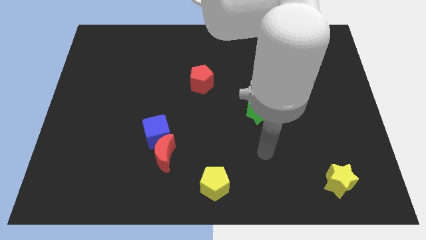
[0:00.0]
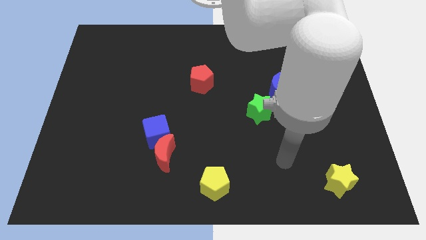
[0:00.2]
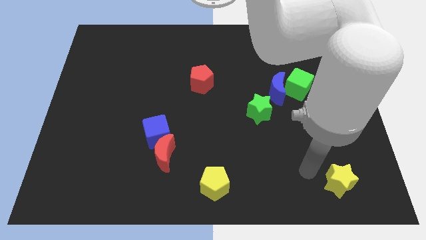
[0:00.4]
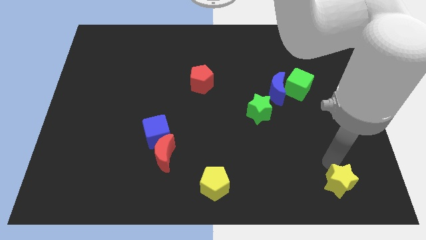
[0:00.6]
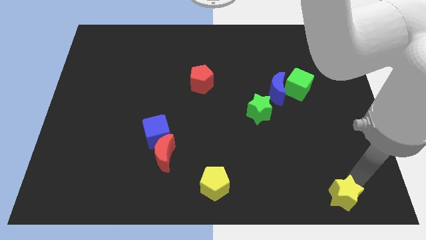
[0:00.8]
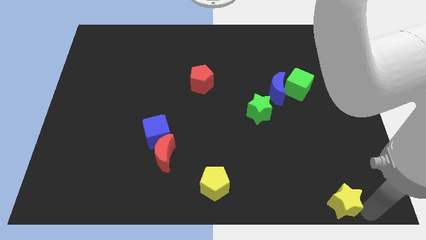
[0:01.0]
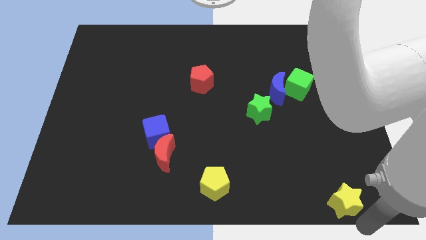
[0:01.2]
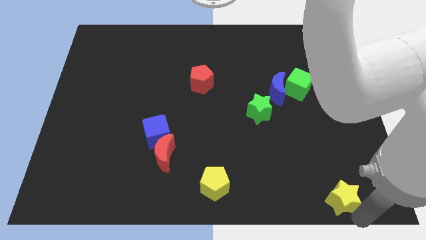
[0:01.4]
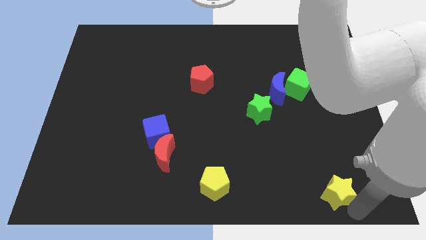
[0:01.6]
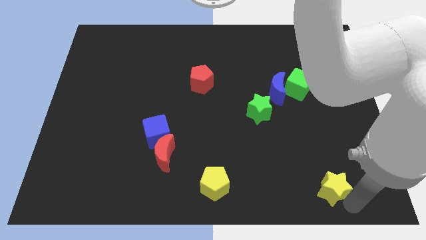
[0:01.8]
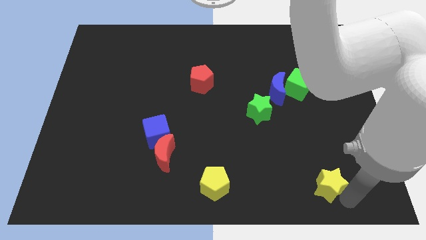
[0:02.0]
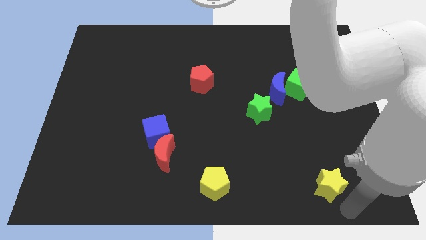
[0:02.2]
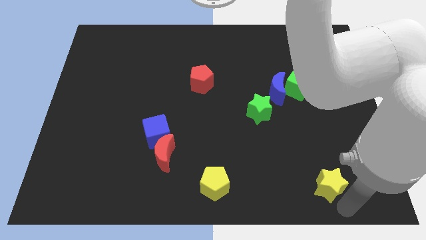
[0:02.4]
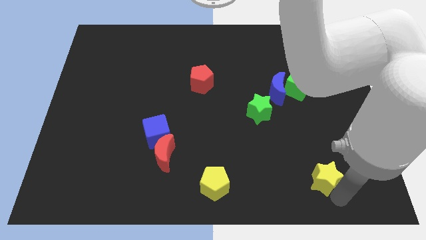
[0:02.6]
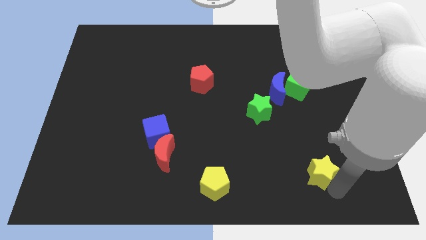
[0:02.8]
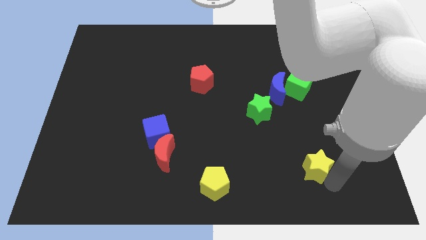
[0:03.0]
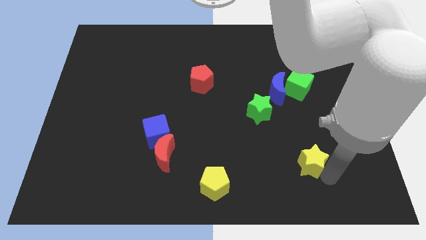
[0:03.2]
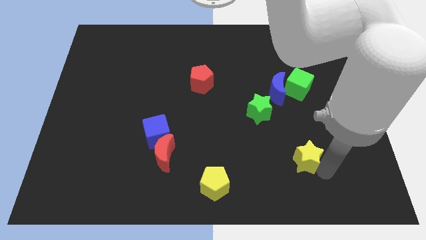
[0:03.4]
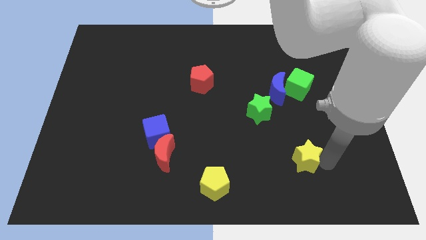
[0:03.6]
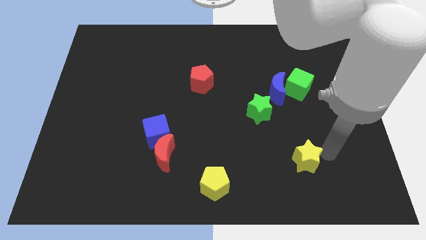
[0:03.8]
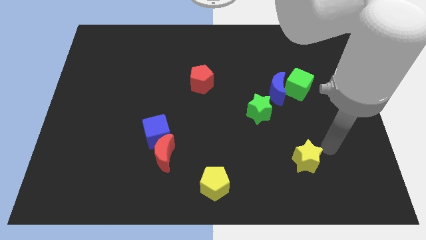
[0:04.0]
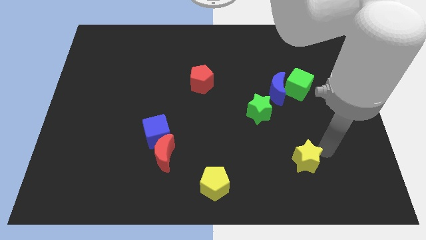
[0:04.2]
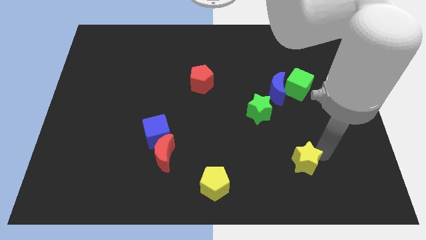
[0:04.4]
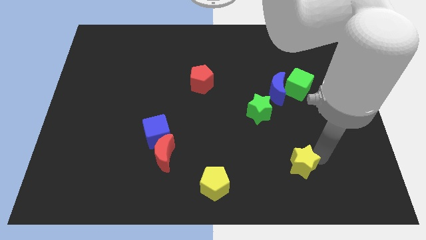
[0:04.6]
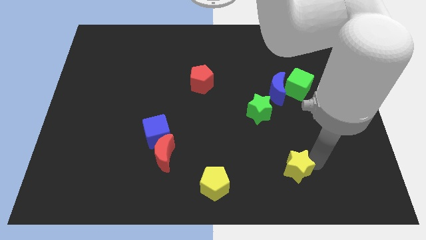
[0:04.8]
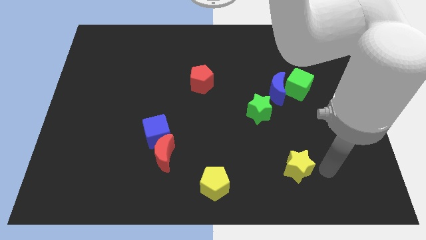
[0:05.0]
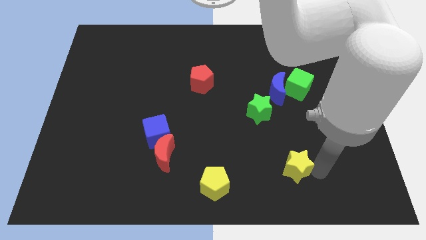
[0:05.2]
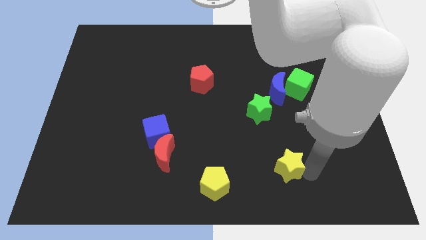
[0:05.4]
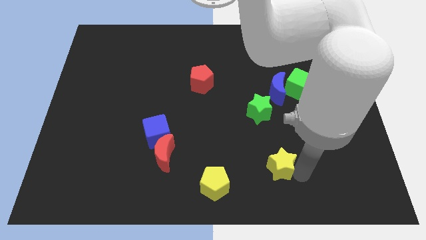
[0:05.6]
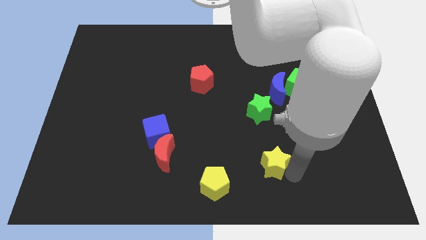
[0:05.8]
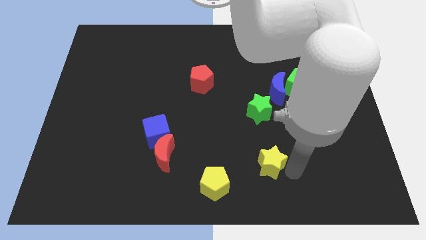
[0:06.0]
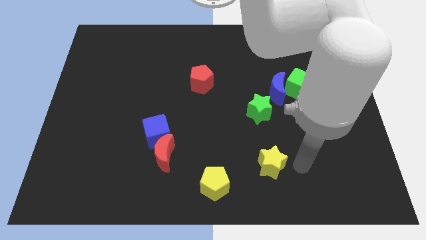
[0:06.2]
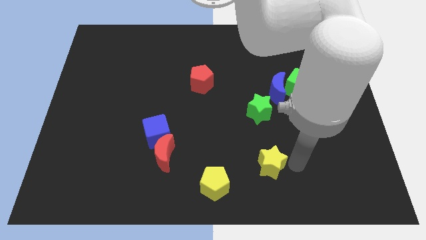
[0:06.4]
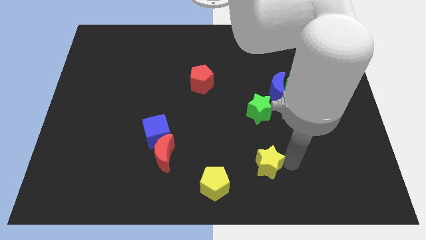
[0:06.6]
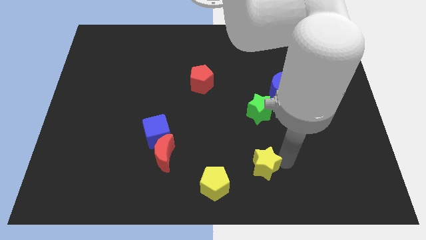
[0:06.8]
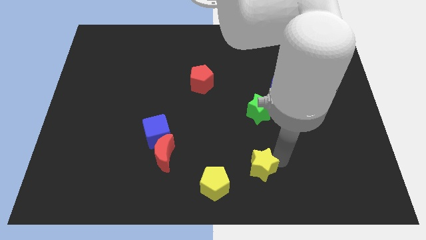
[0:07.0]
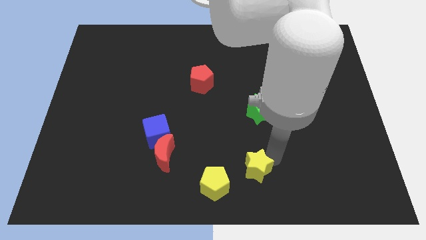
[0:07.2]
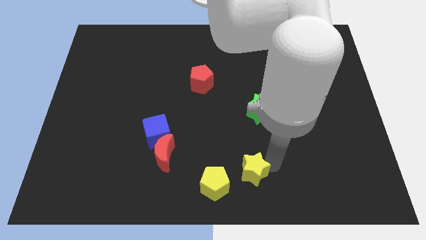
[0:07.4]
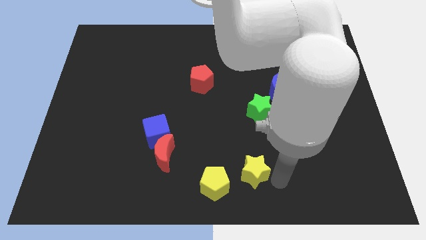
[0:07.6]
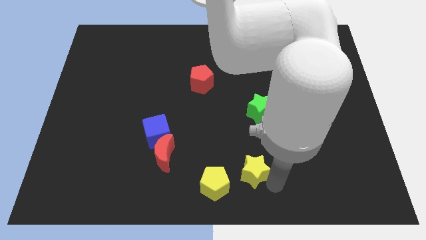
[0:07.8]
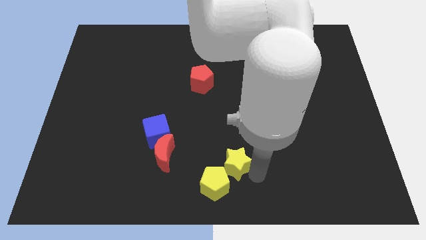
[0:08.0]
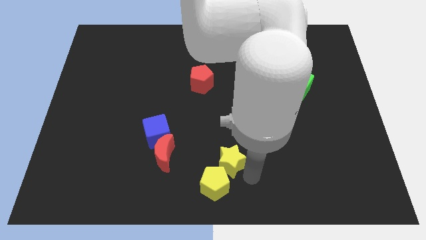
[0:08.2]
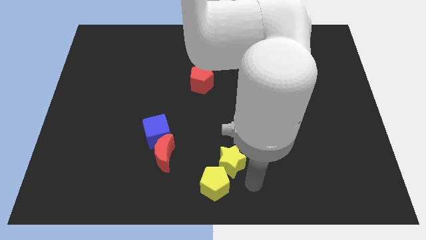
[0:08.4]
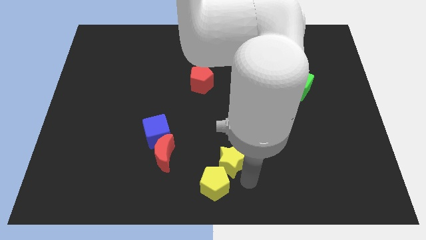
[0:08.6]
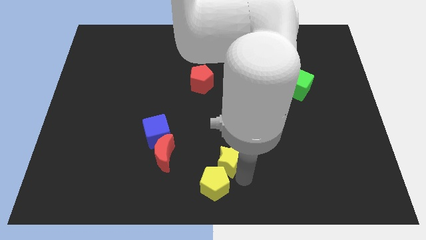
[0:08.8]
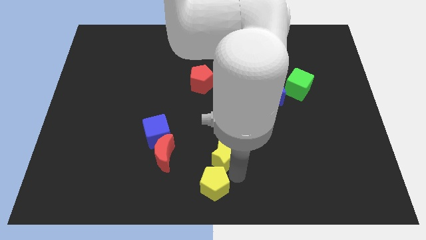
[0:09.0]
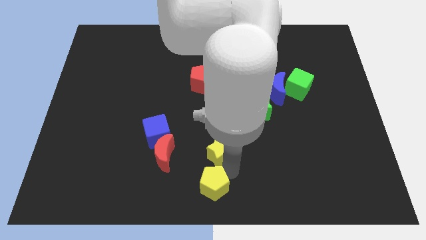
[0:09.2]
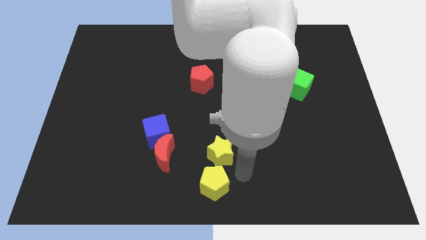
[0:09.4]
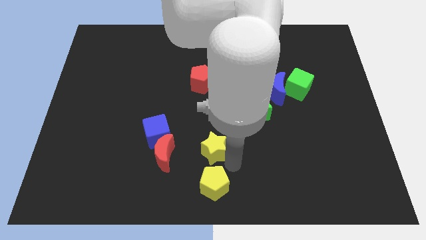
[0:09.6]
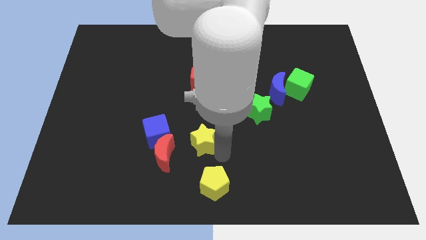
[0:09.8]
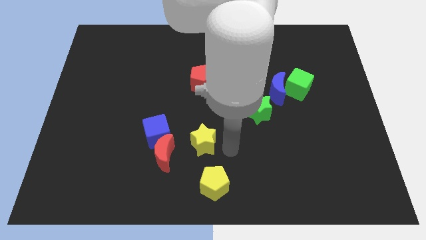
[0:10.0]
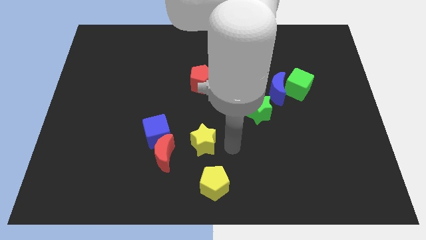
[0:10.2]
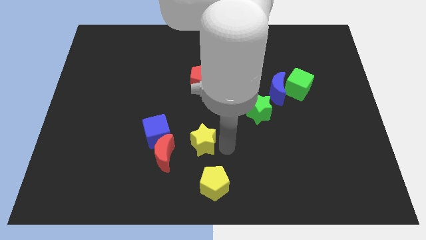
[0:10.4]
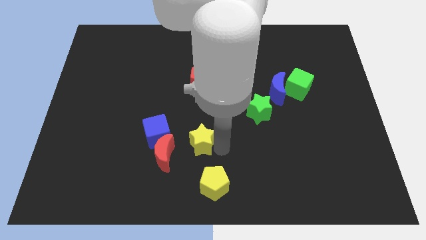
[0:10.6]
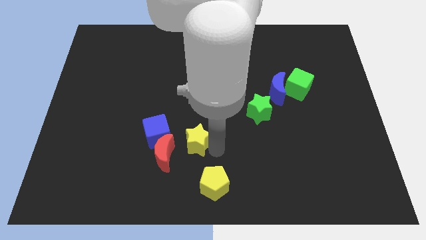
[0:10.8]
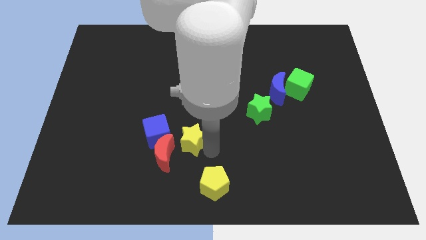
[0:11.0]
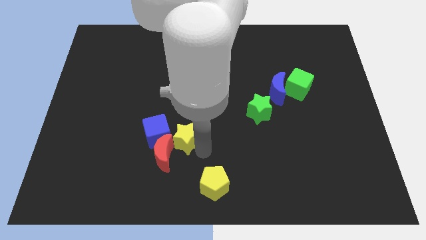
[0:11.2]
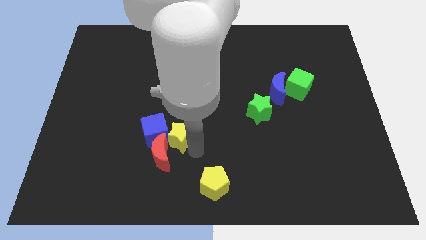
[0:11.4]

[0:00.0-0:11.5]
move the yellow star close to the blue cube

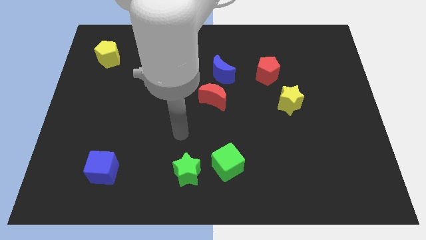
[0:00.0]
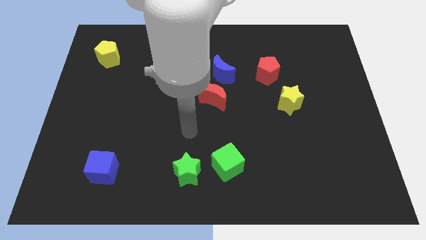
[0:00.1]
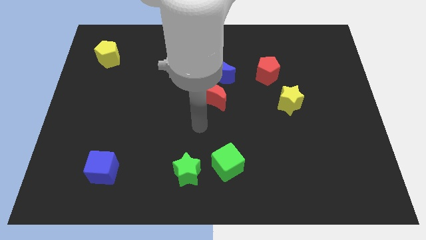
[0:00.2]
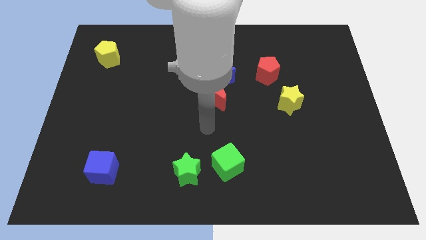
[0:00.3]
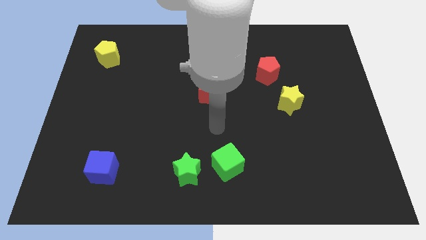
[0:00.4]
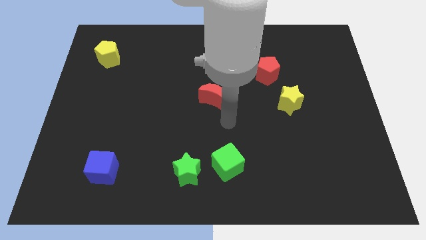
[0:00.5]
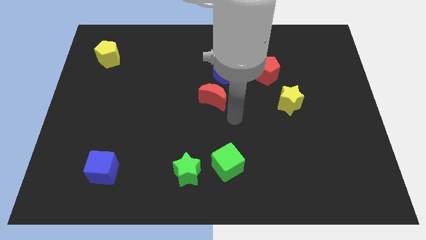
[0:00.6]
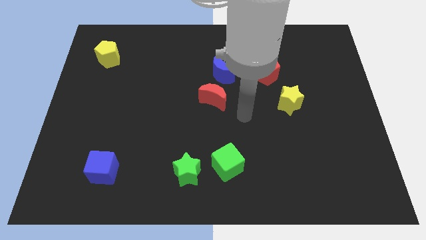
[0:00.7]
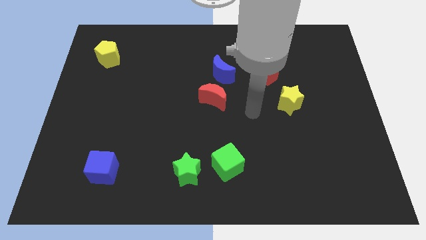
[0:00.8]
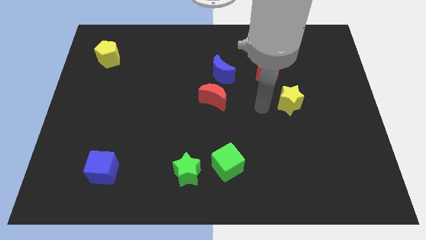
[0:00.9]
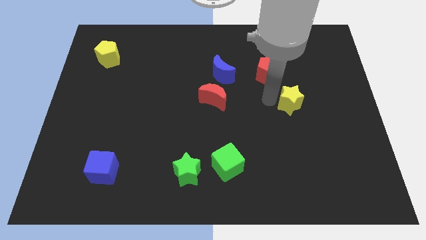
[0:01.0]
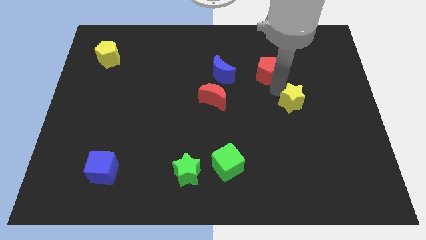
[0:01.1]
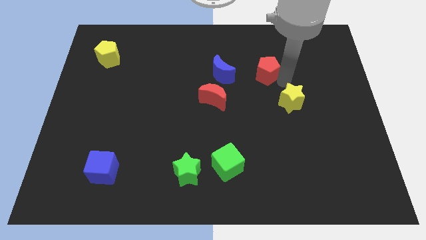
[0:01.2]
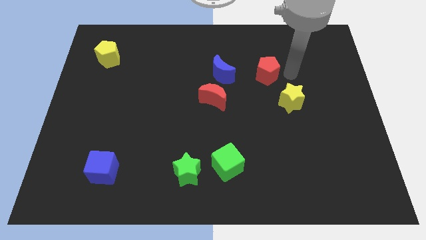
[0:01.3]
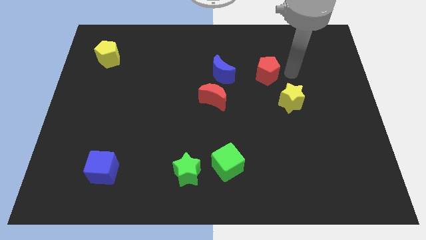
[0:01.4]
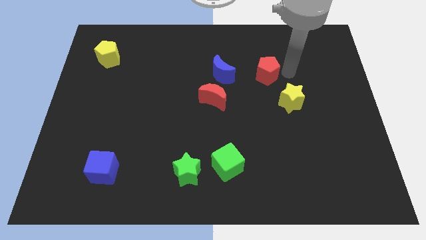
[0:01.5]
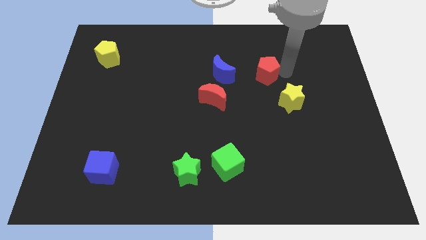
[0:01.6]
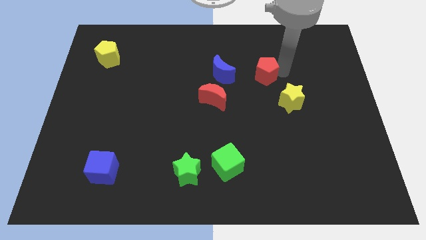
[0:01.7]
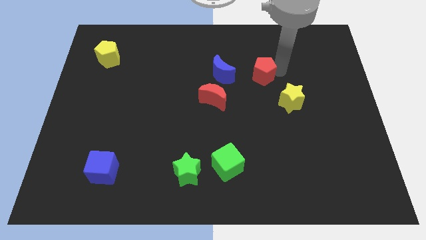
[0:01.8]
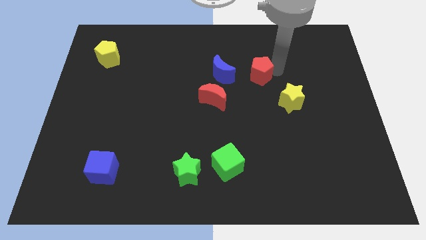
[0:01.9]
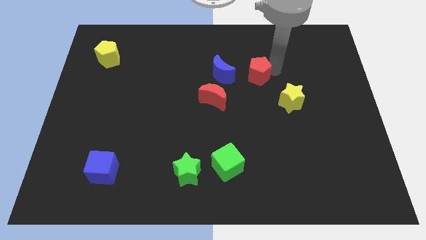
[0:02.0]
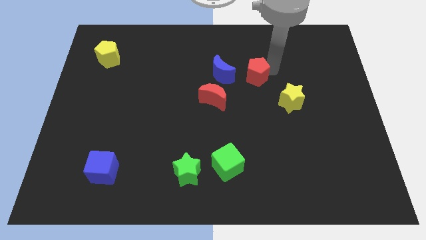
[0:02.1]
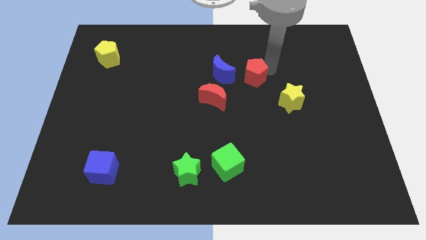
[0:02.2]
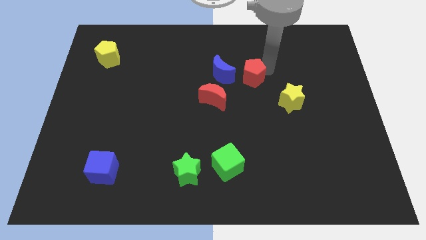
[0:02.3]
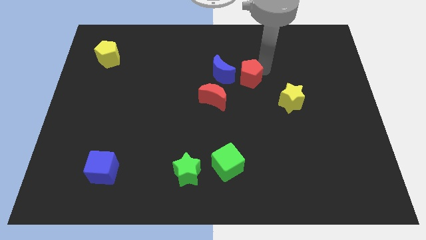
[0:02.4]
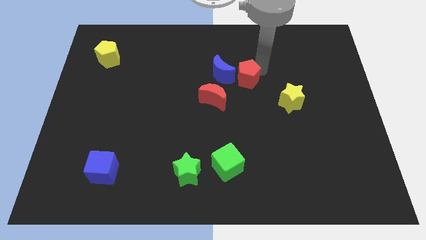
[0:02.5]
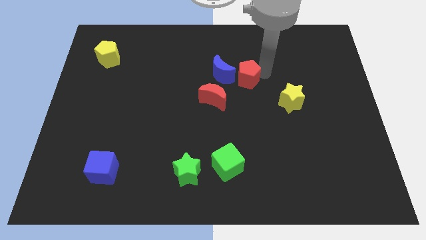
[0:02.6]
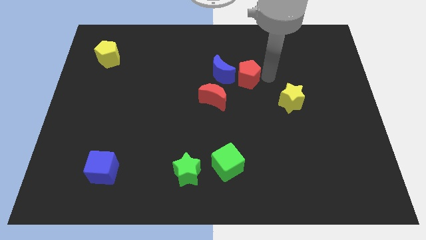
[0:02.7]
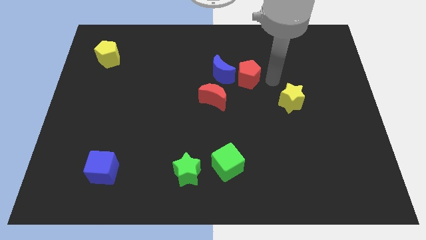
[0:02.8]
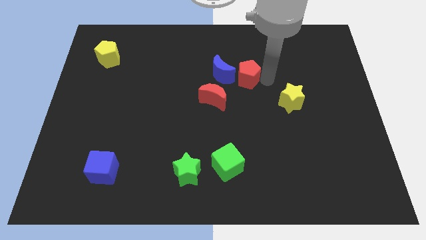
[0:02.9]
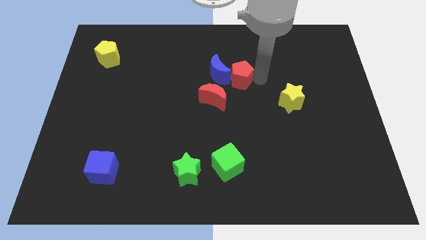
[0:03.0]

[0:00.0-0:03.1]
push the red pentagon to the blue moon
